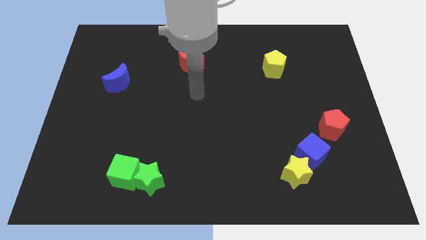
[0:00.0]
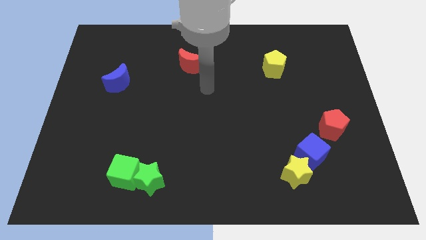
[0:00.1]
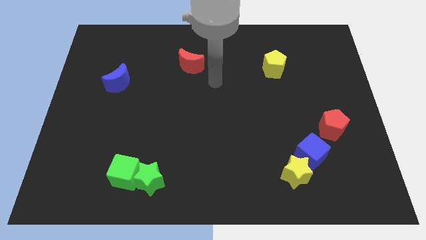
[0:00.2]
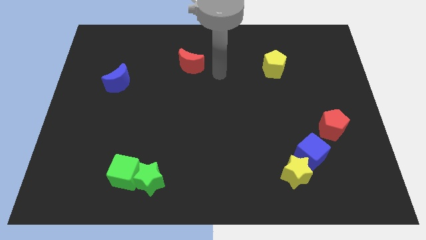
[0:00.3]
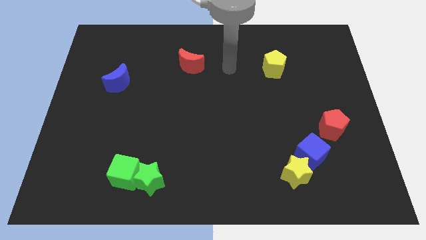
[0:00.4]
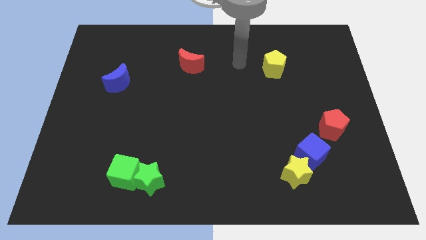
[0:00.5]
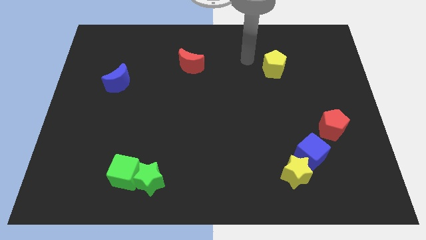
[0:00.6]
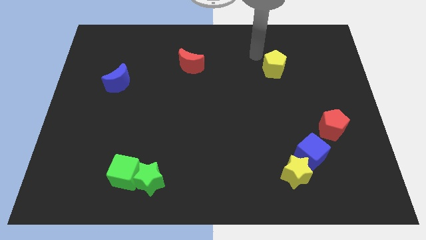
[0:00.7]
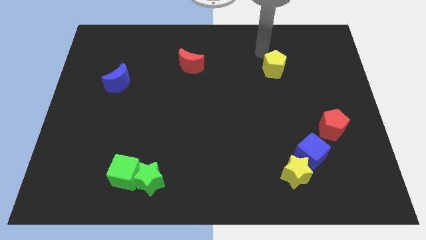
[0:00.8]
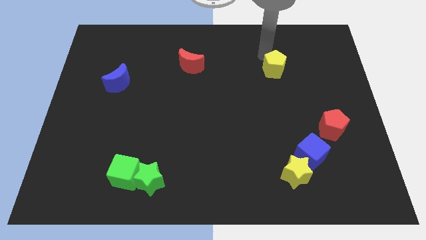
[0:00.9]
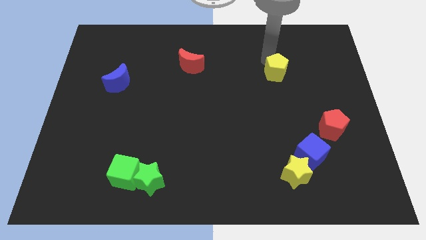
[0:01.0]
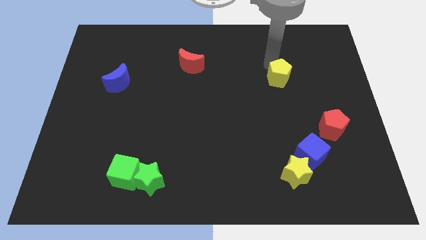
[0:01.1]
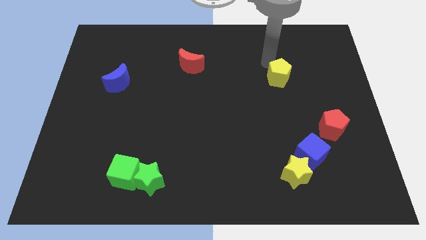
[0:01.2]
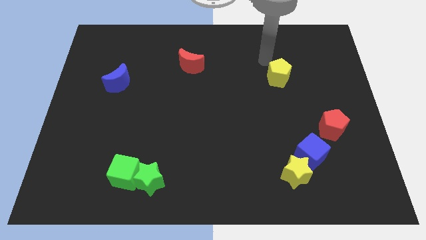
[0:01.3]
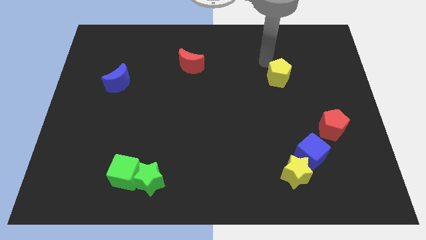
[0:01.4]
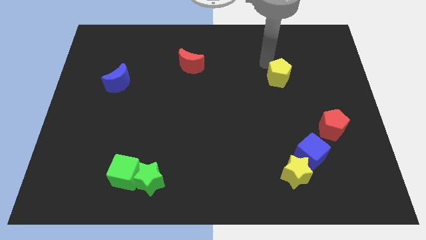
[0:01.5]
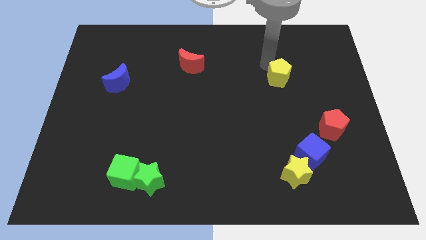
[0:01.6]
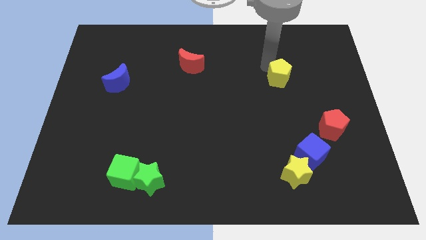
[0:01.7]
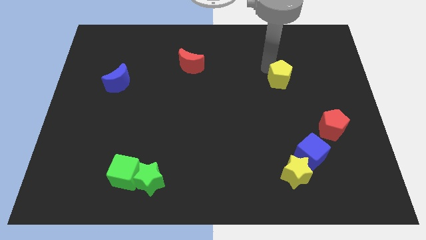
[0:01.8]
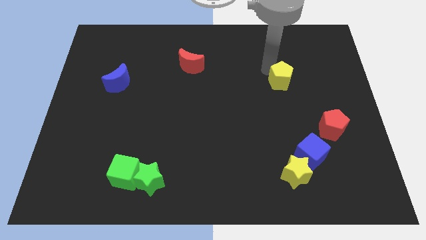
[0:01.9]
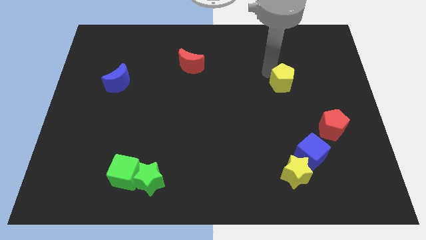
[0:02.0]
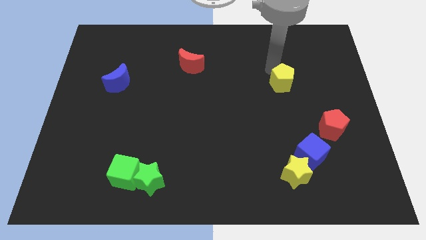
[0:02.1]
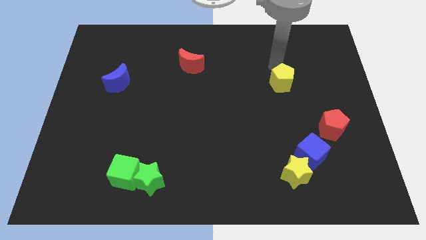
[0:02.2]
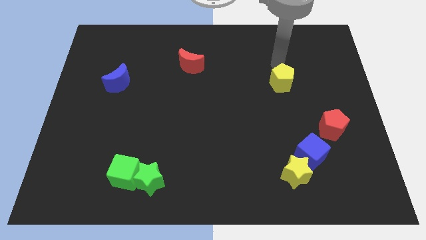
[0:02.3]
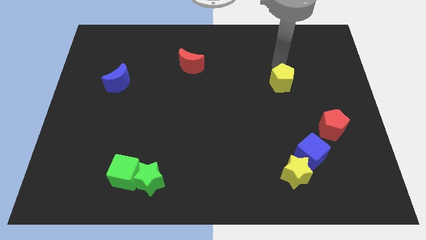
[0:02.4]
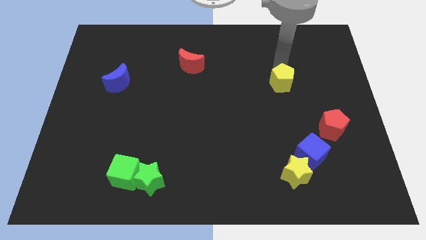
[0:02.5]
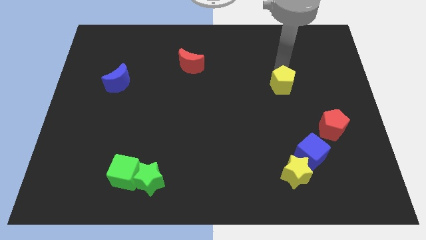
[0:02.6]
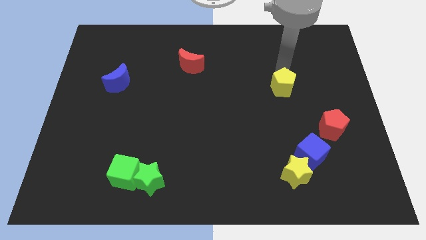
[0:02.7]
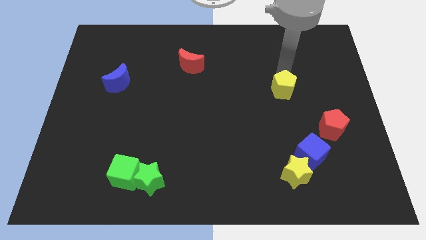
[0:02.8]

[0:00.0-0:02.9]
slightly slide the yellow pentagon downwards

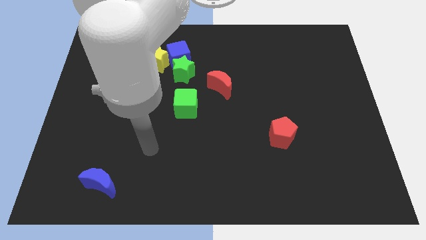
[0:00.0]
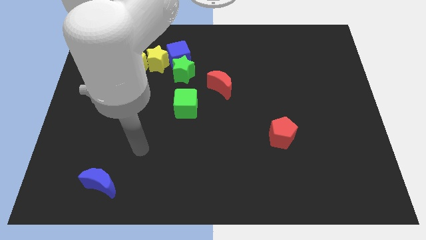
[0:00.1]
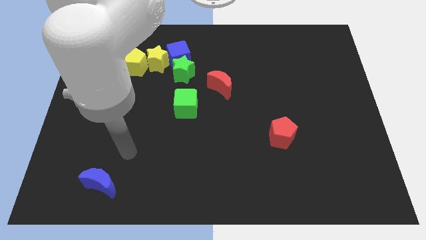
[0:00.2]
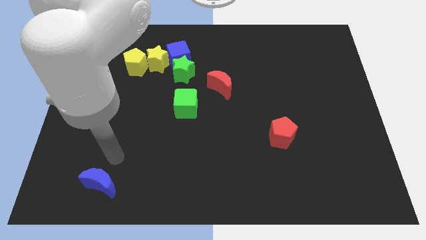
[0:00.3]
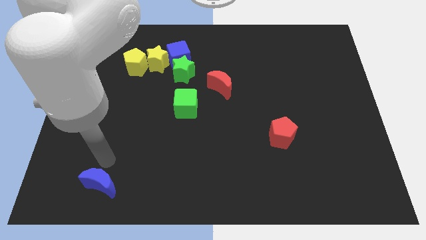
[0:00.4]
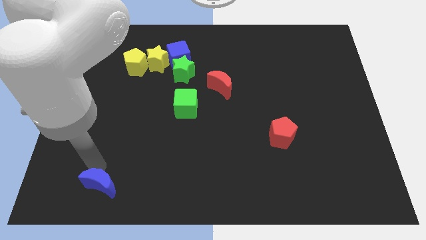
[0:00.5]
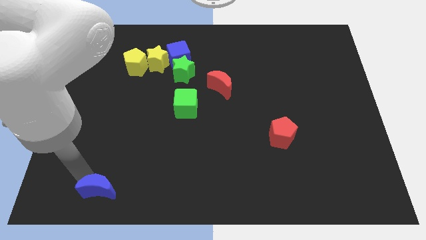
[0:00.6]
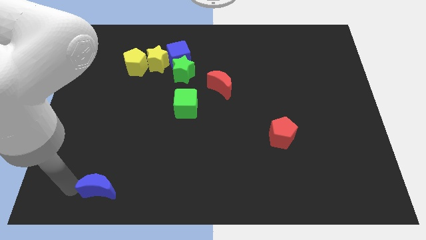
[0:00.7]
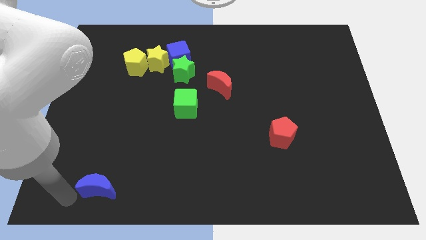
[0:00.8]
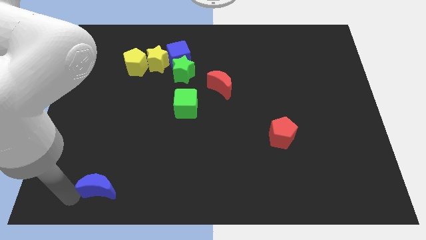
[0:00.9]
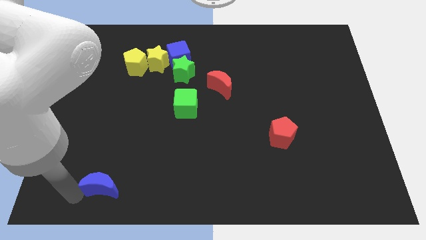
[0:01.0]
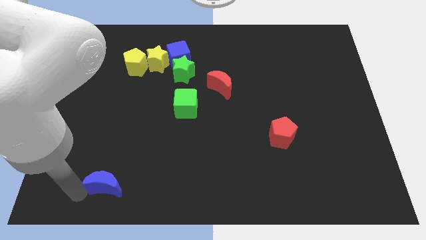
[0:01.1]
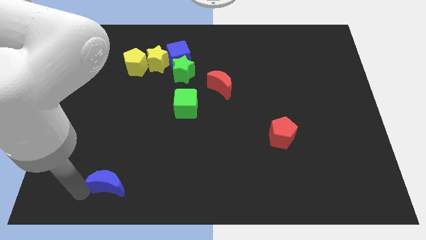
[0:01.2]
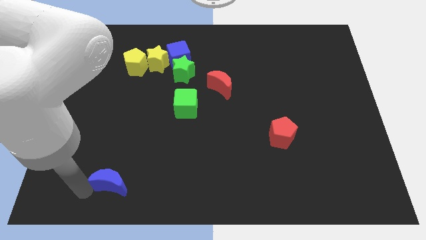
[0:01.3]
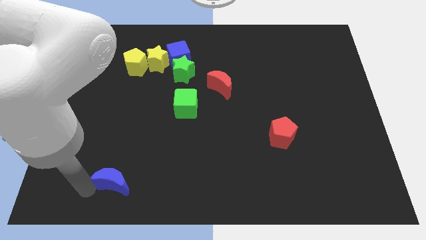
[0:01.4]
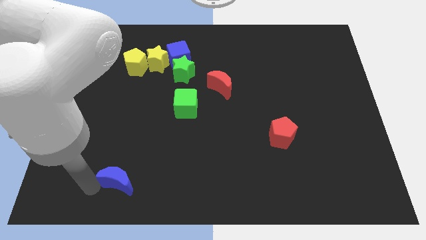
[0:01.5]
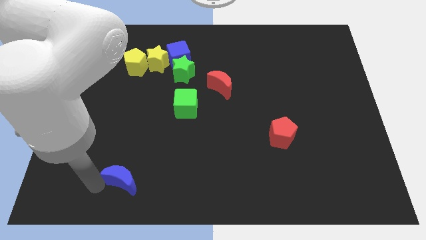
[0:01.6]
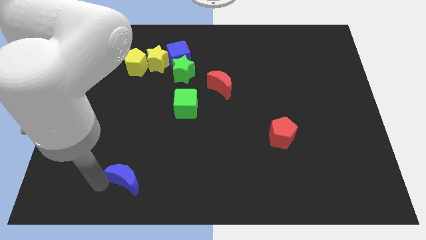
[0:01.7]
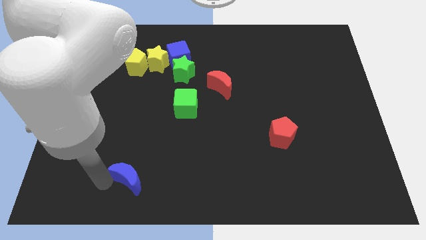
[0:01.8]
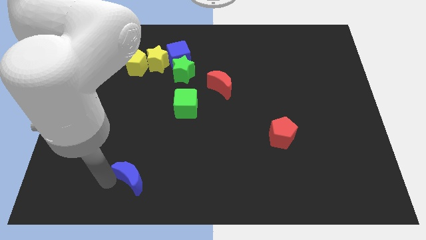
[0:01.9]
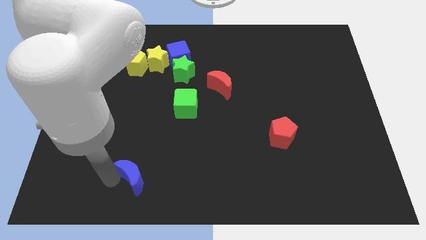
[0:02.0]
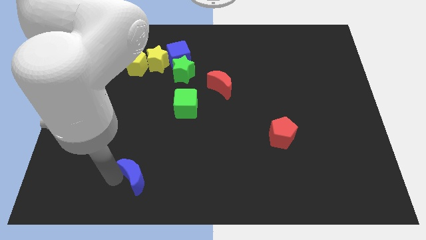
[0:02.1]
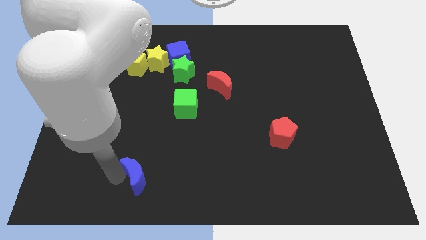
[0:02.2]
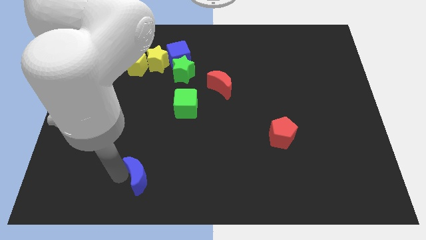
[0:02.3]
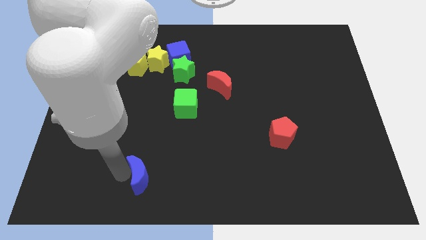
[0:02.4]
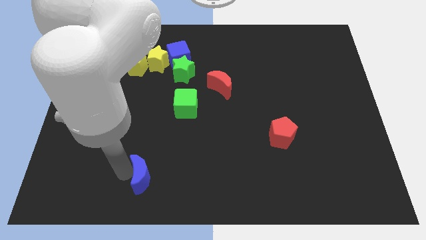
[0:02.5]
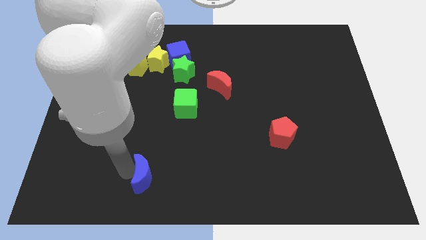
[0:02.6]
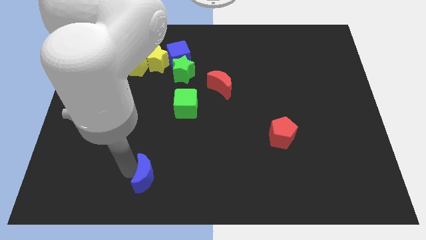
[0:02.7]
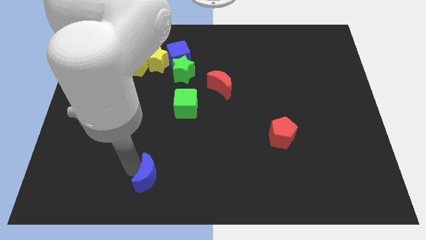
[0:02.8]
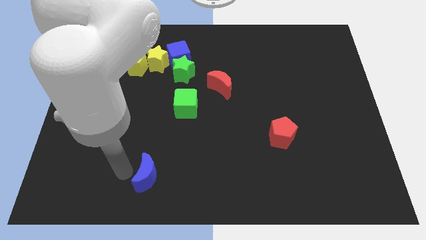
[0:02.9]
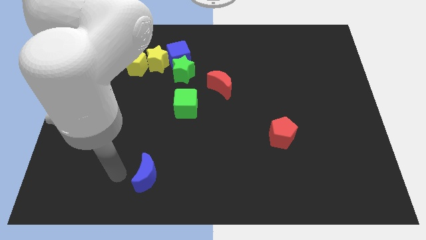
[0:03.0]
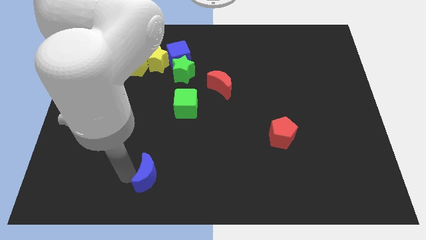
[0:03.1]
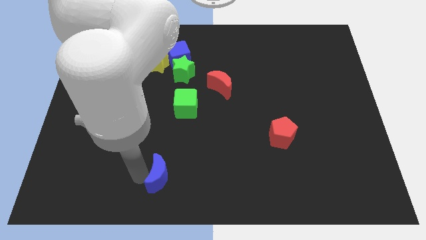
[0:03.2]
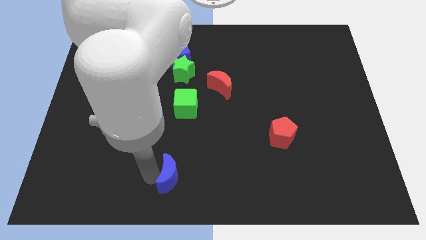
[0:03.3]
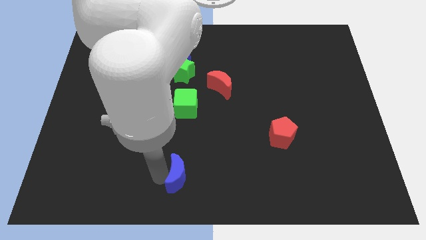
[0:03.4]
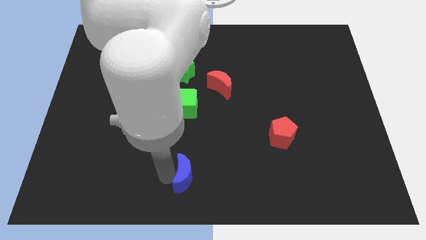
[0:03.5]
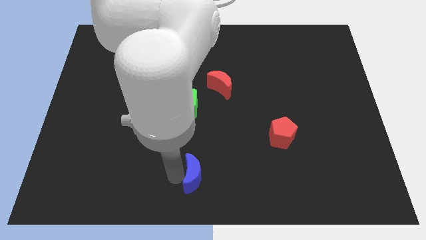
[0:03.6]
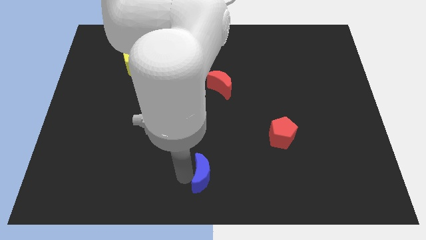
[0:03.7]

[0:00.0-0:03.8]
push the blue moon right

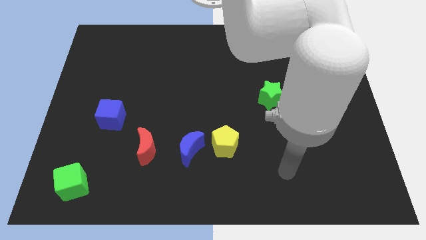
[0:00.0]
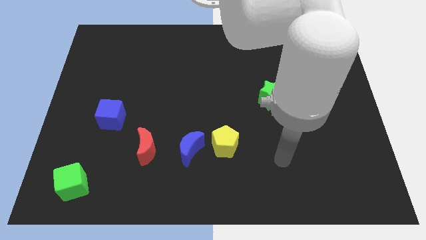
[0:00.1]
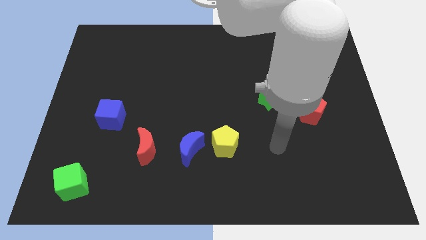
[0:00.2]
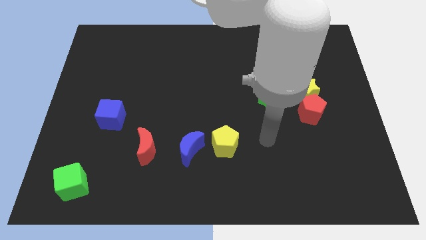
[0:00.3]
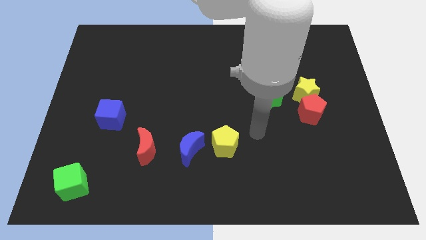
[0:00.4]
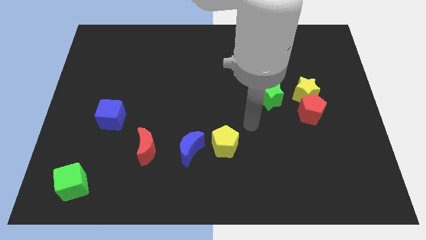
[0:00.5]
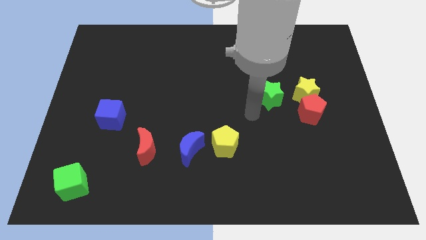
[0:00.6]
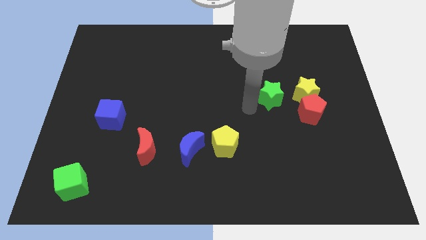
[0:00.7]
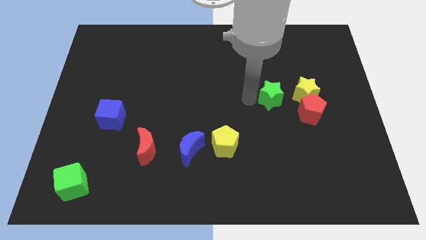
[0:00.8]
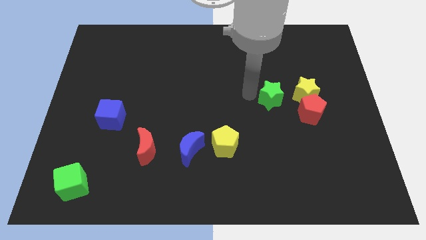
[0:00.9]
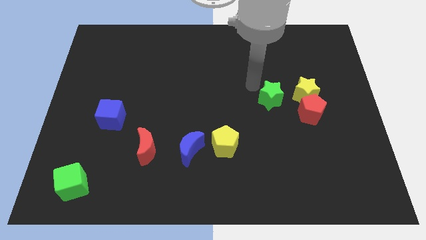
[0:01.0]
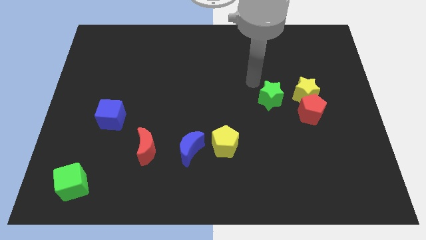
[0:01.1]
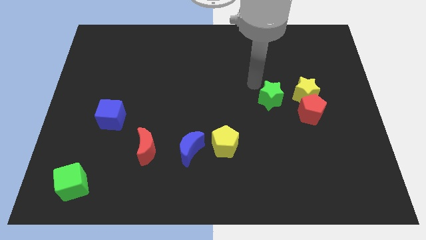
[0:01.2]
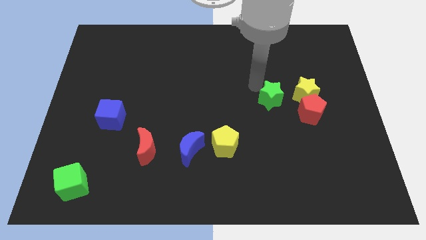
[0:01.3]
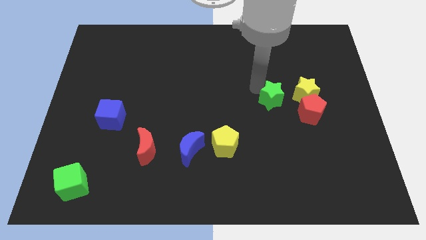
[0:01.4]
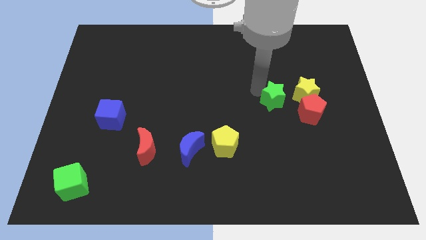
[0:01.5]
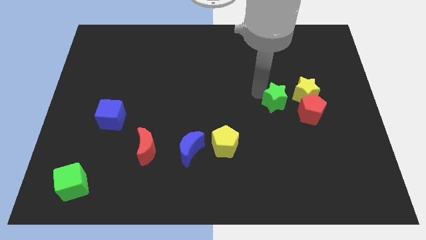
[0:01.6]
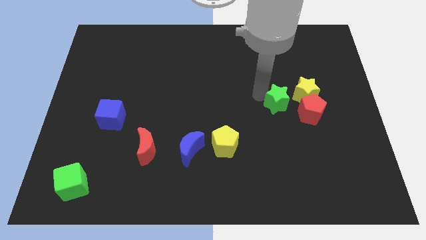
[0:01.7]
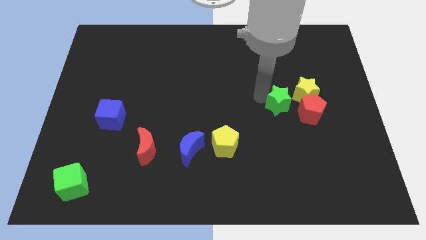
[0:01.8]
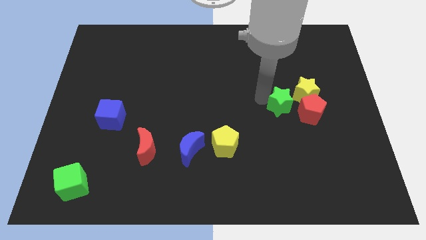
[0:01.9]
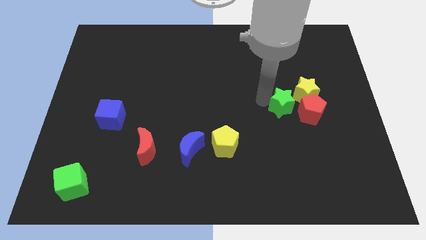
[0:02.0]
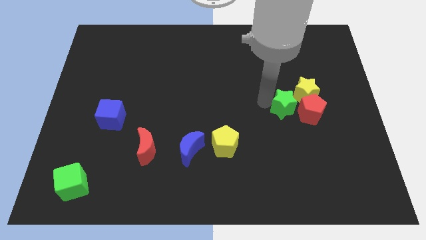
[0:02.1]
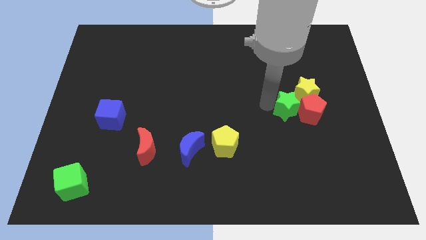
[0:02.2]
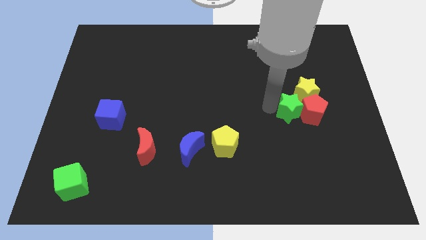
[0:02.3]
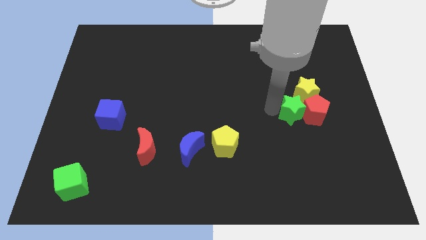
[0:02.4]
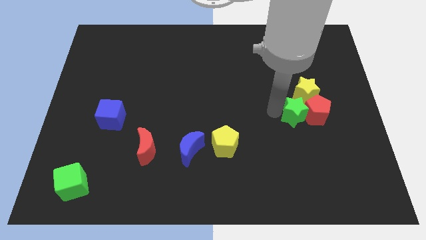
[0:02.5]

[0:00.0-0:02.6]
move the green star down and to the right diagonally a bit
